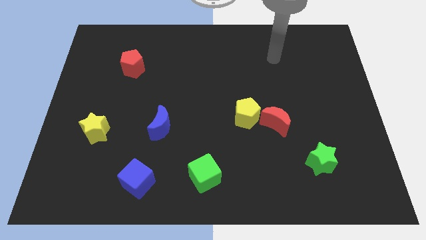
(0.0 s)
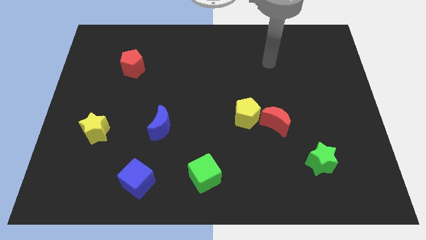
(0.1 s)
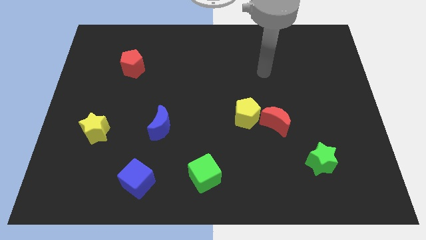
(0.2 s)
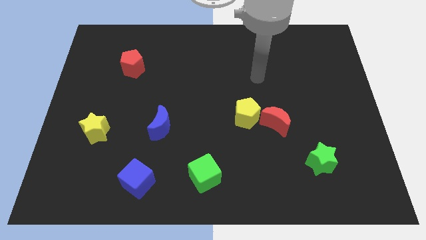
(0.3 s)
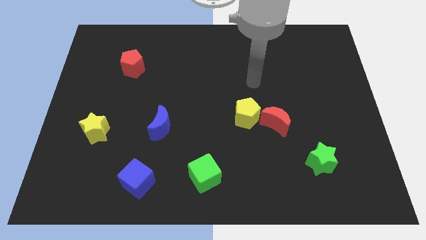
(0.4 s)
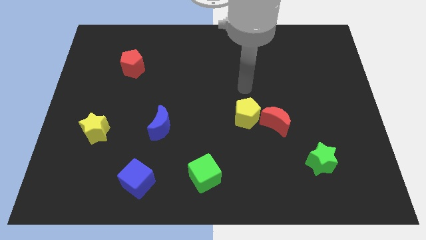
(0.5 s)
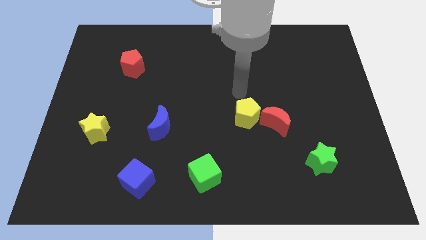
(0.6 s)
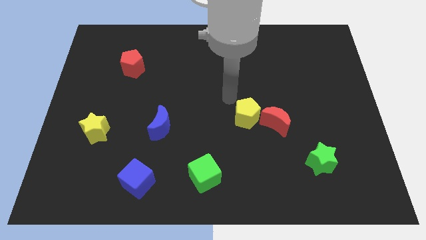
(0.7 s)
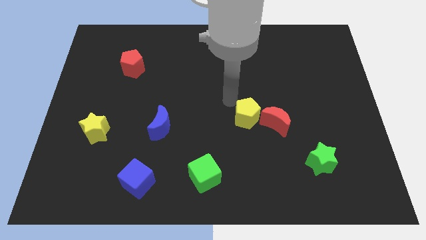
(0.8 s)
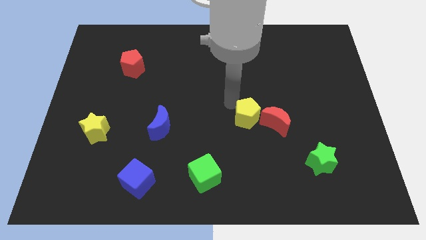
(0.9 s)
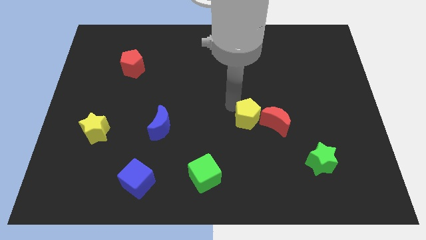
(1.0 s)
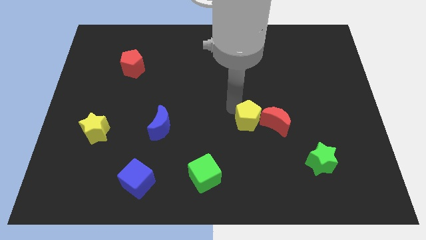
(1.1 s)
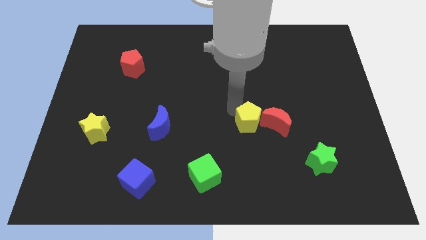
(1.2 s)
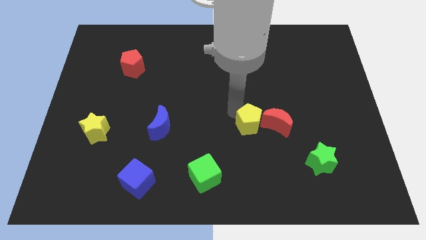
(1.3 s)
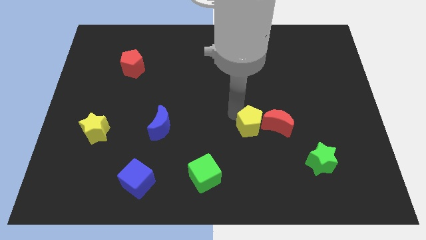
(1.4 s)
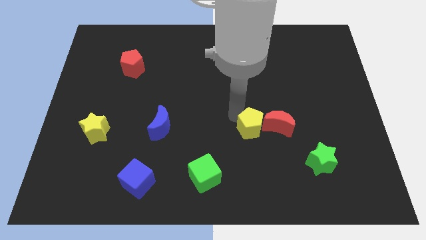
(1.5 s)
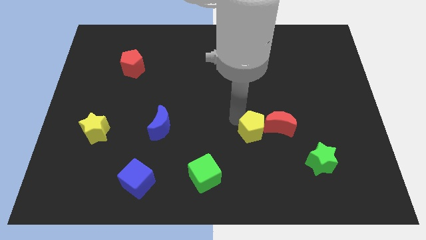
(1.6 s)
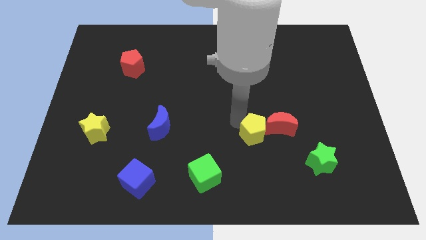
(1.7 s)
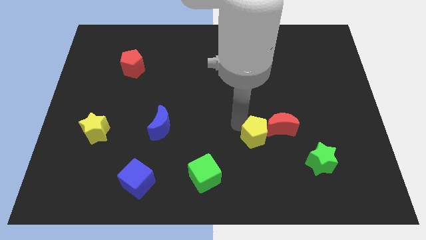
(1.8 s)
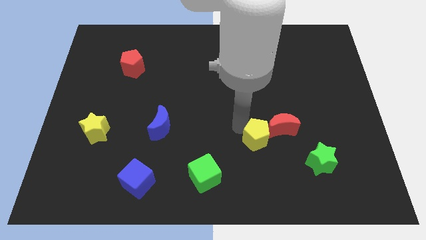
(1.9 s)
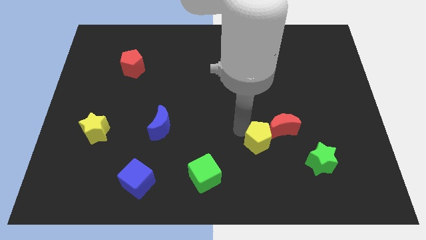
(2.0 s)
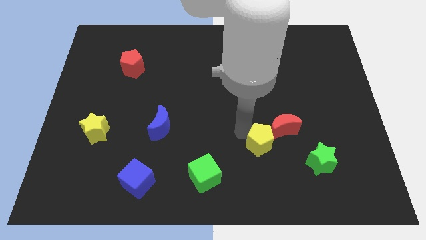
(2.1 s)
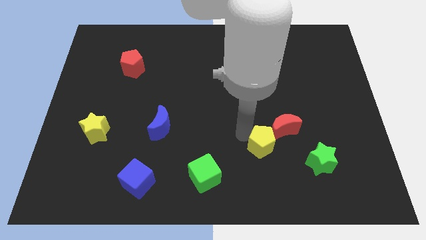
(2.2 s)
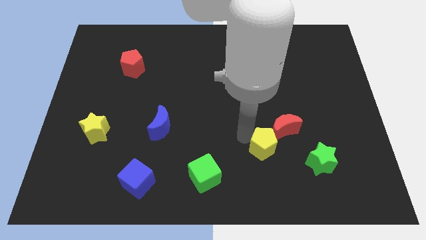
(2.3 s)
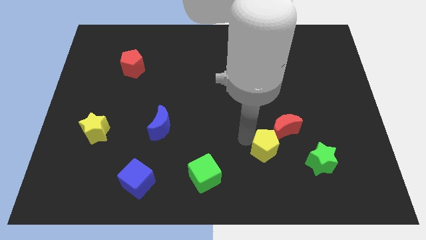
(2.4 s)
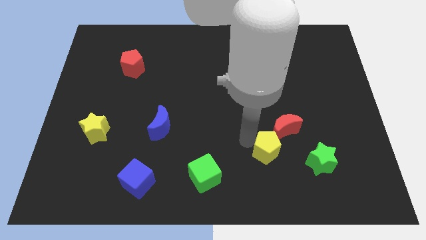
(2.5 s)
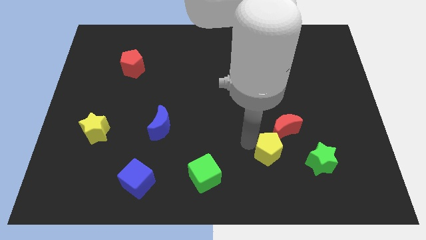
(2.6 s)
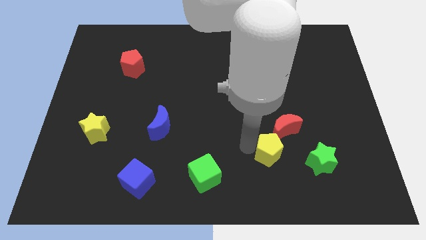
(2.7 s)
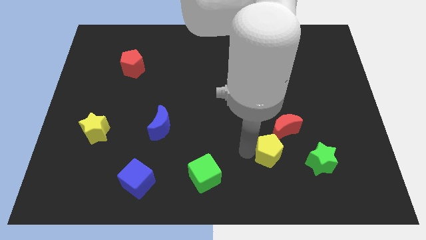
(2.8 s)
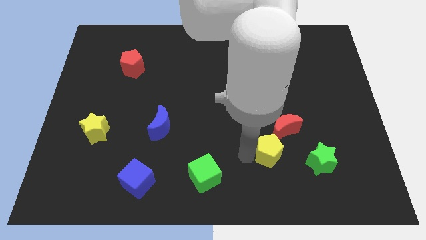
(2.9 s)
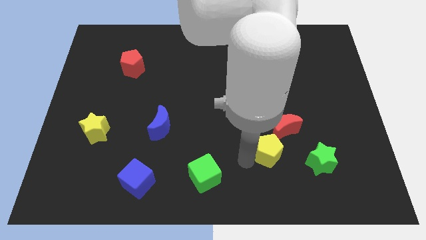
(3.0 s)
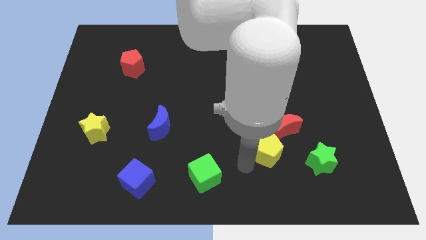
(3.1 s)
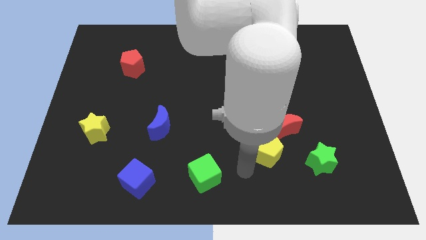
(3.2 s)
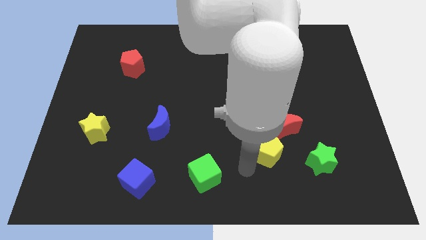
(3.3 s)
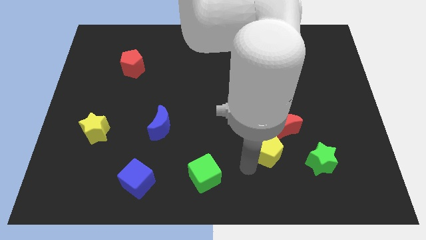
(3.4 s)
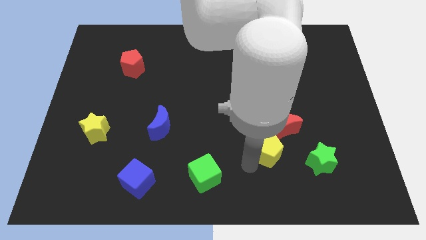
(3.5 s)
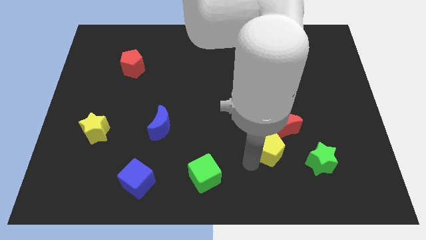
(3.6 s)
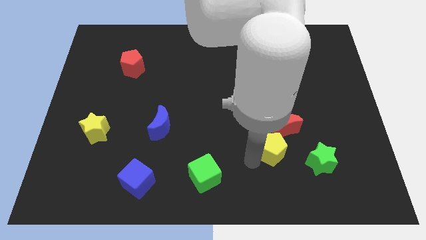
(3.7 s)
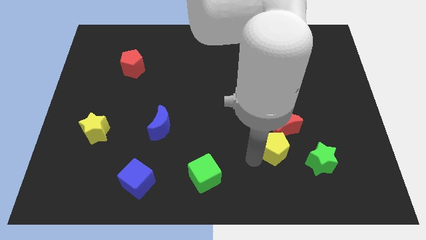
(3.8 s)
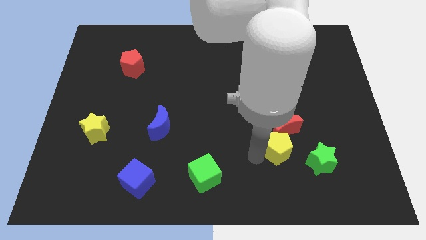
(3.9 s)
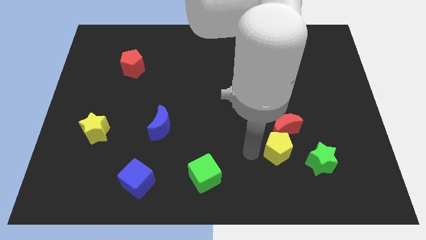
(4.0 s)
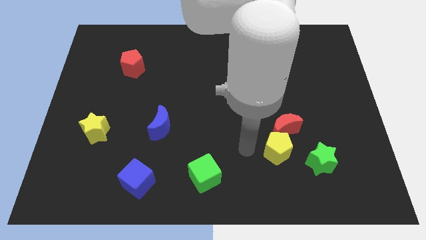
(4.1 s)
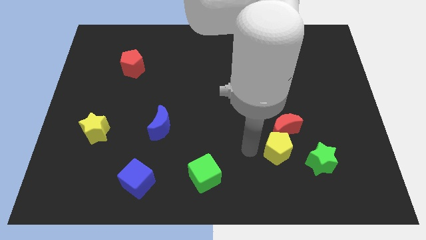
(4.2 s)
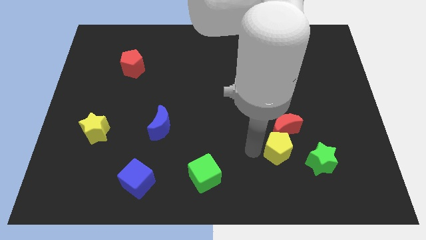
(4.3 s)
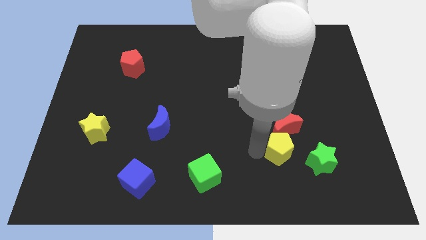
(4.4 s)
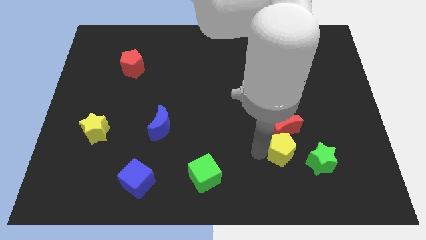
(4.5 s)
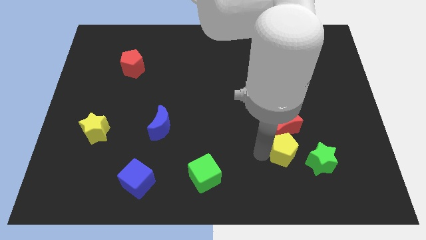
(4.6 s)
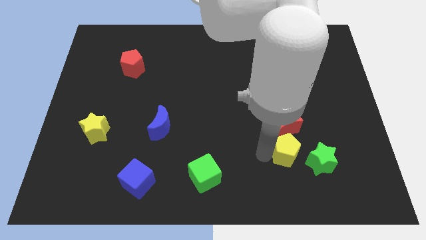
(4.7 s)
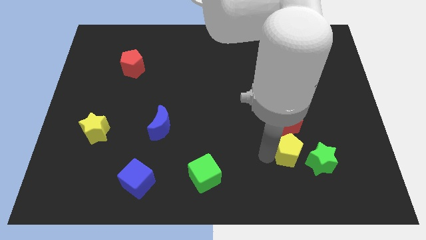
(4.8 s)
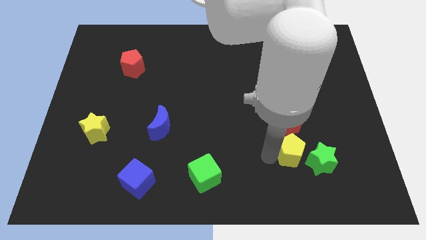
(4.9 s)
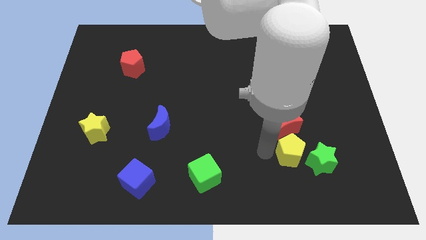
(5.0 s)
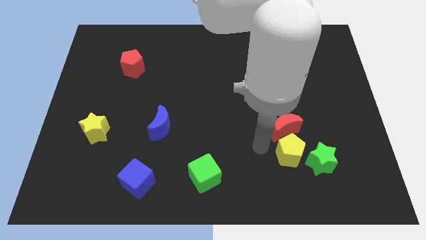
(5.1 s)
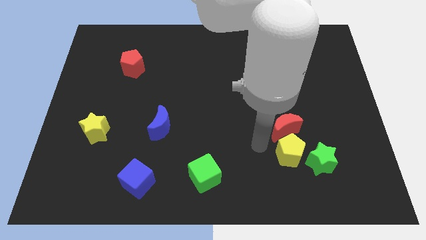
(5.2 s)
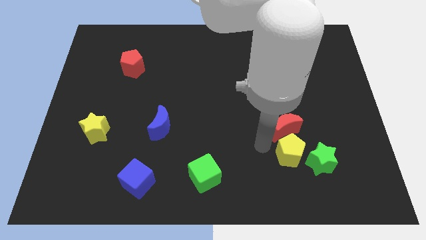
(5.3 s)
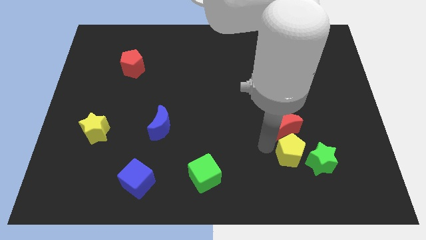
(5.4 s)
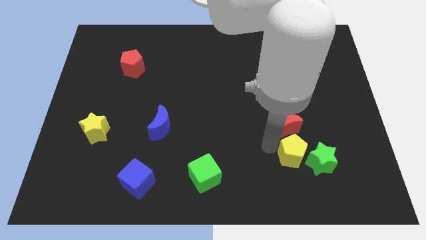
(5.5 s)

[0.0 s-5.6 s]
put the yellow pentagon next to the green star

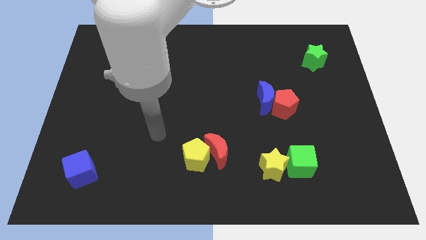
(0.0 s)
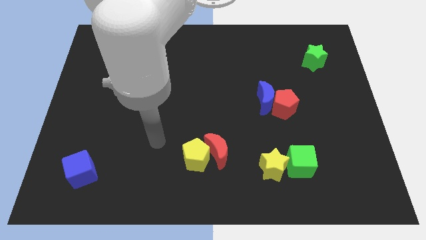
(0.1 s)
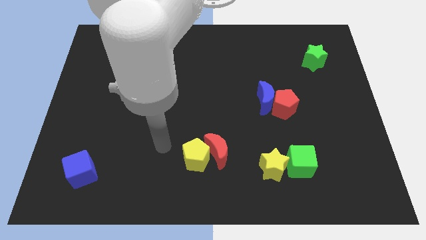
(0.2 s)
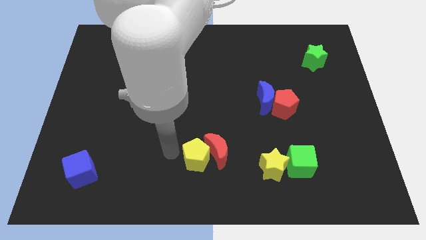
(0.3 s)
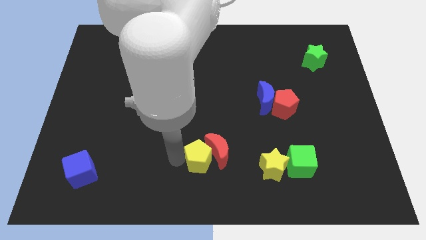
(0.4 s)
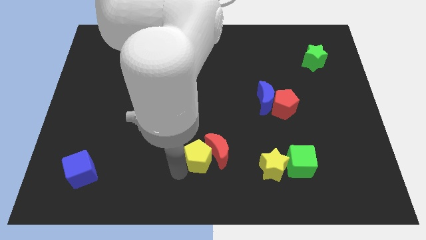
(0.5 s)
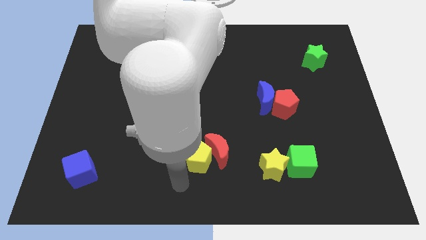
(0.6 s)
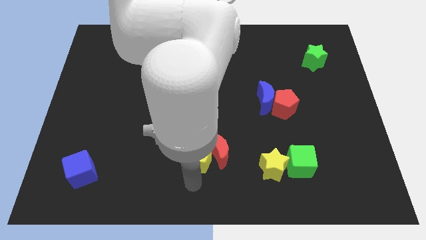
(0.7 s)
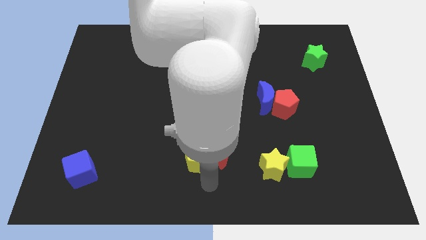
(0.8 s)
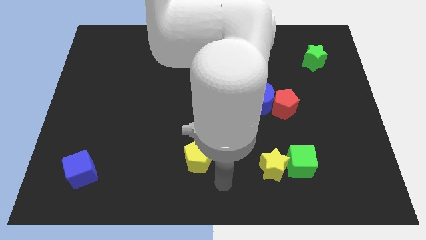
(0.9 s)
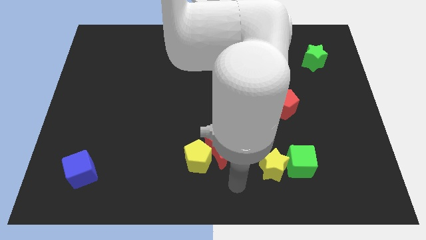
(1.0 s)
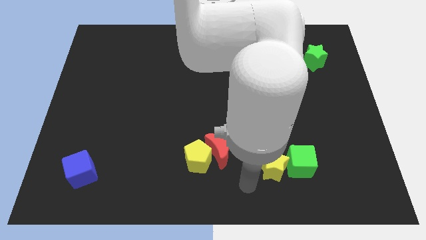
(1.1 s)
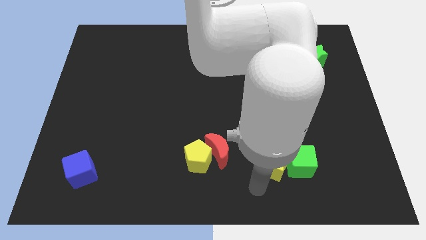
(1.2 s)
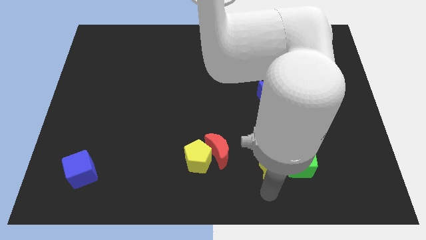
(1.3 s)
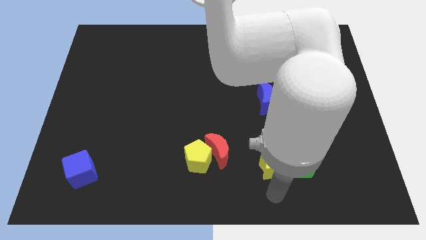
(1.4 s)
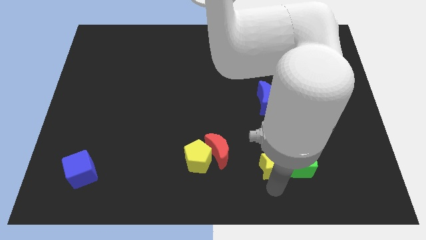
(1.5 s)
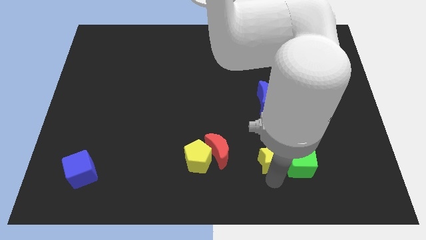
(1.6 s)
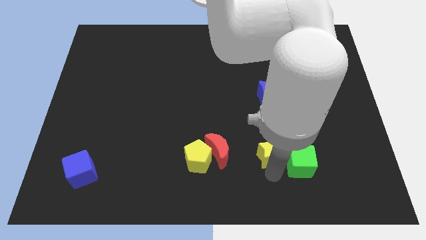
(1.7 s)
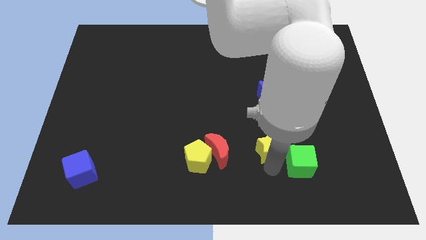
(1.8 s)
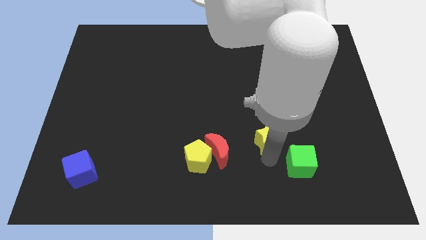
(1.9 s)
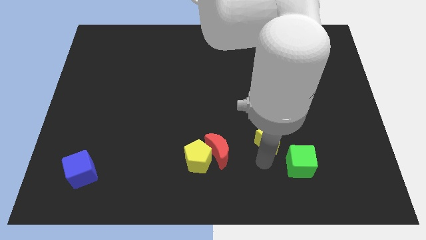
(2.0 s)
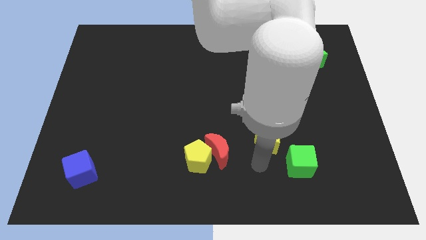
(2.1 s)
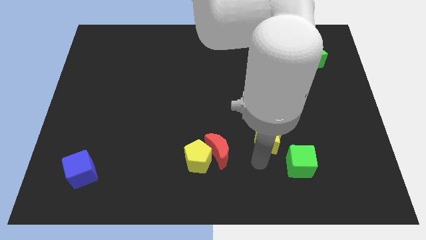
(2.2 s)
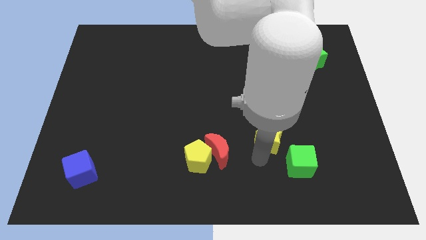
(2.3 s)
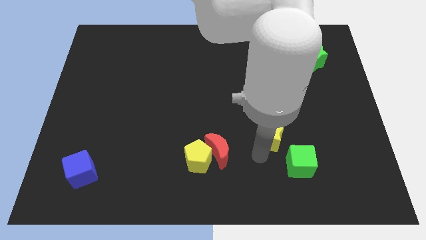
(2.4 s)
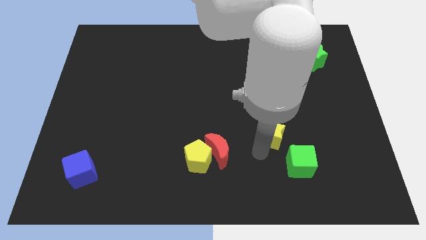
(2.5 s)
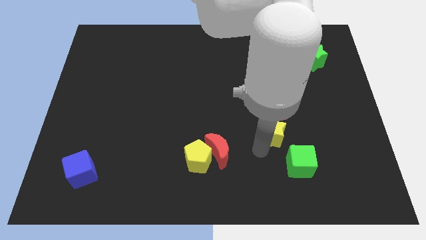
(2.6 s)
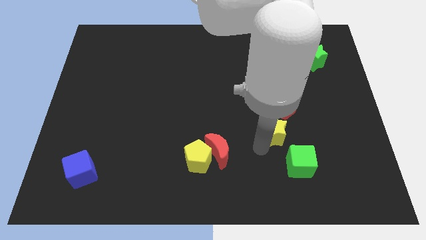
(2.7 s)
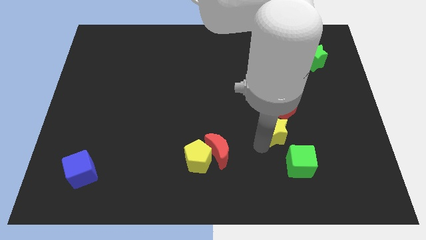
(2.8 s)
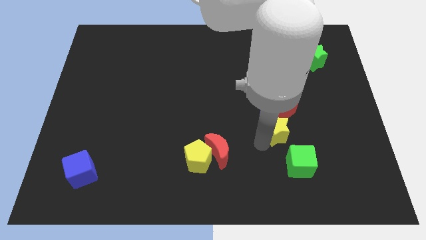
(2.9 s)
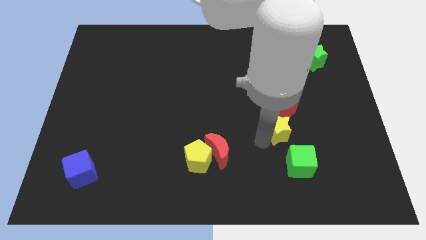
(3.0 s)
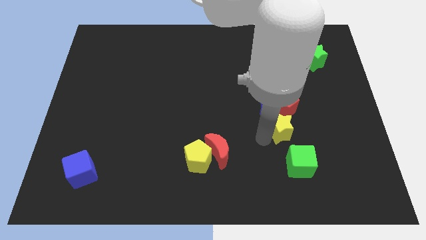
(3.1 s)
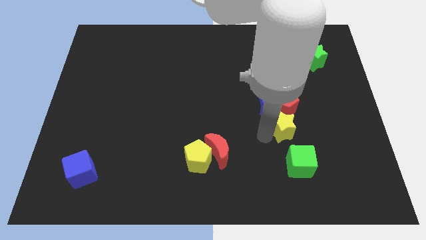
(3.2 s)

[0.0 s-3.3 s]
move the yellow star close to the red pentagon
